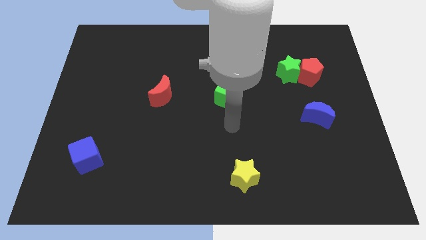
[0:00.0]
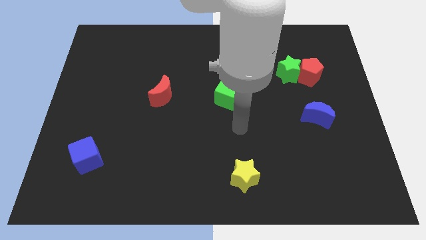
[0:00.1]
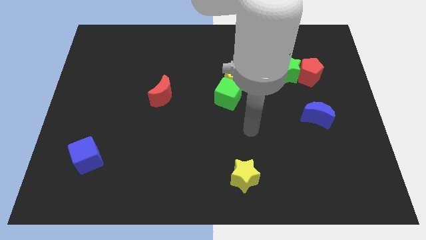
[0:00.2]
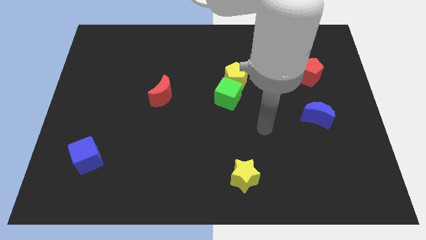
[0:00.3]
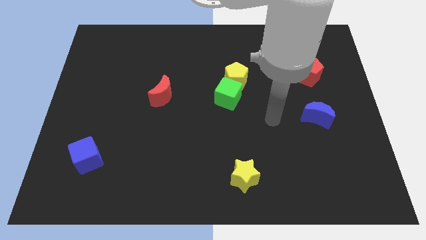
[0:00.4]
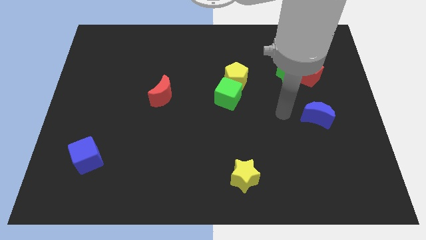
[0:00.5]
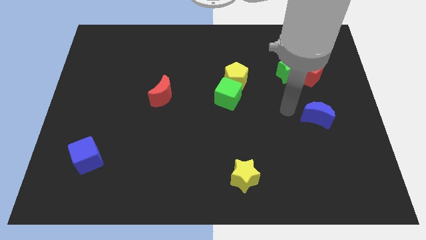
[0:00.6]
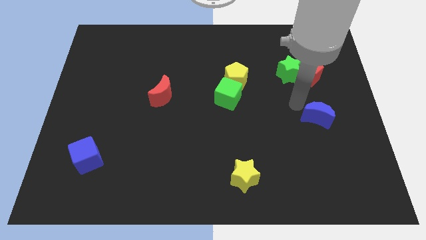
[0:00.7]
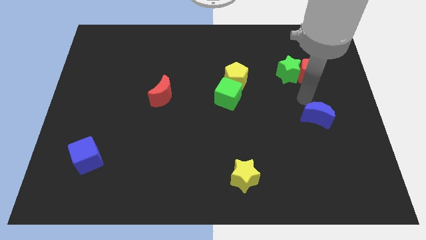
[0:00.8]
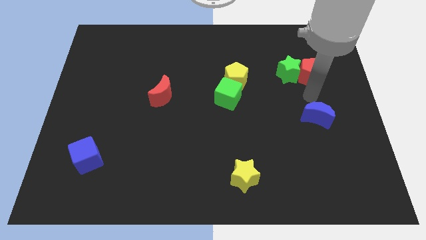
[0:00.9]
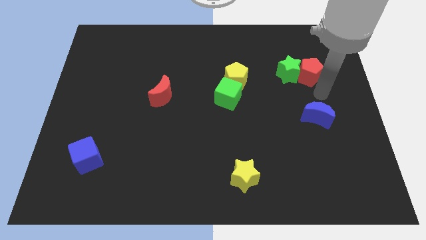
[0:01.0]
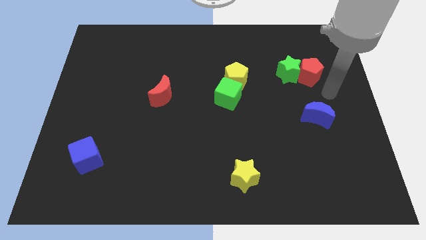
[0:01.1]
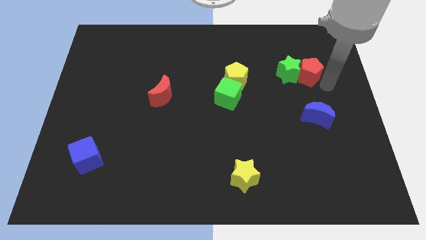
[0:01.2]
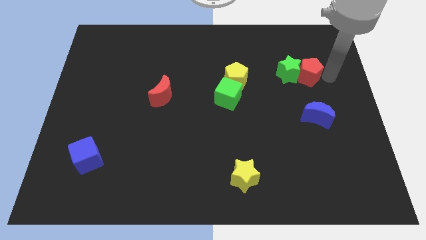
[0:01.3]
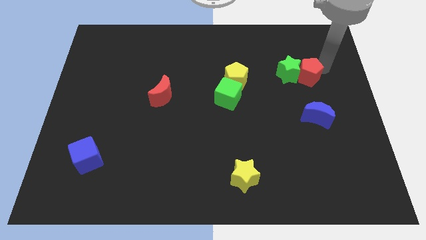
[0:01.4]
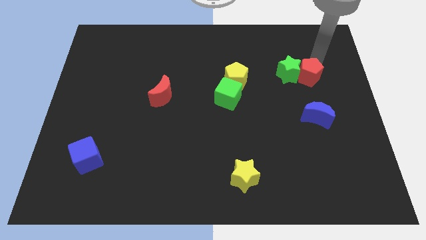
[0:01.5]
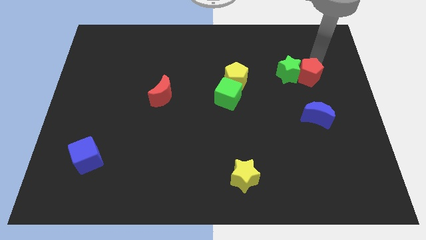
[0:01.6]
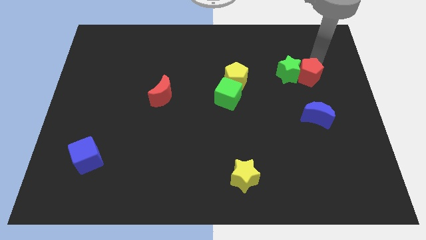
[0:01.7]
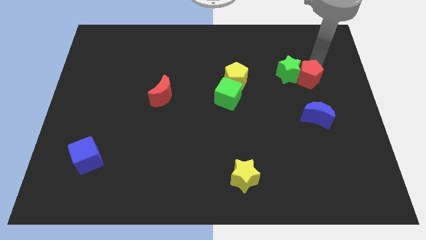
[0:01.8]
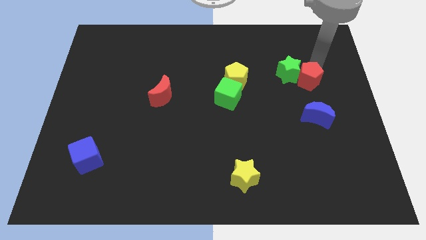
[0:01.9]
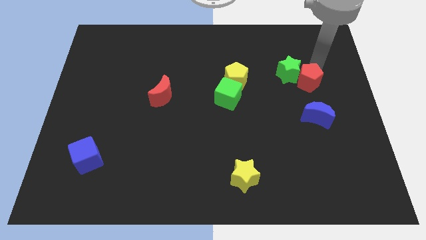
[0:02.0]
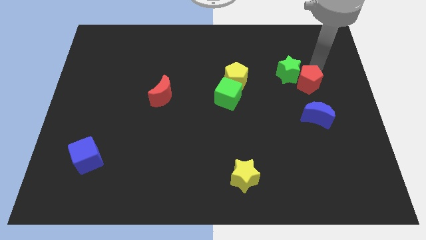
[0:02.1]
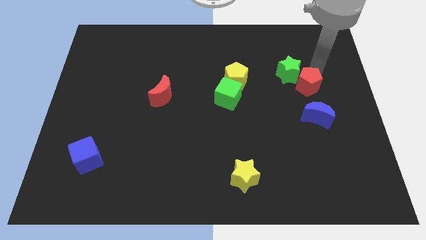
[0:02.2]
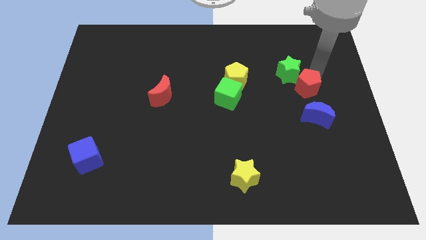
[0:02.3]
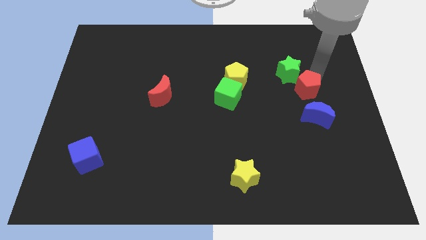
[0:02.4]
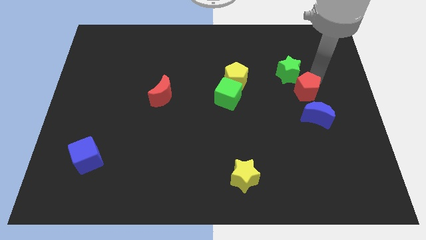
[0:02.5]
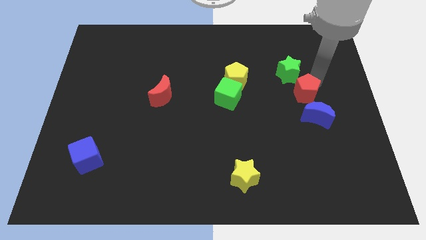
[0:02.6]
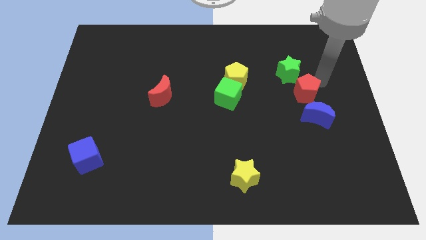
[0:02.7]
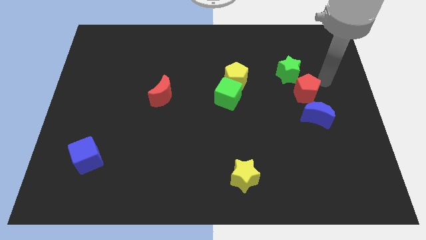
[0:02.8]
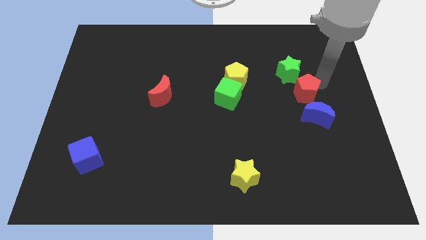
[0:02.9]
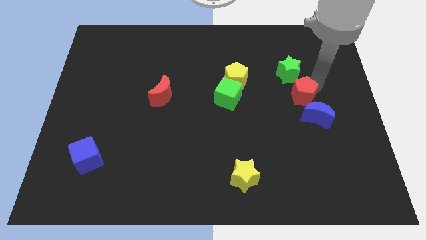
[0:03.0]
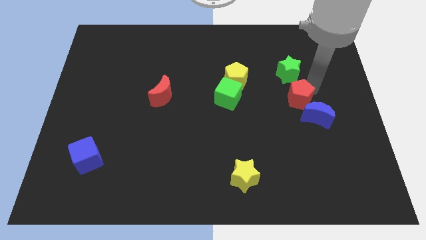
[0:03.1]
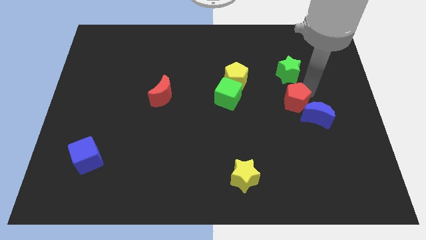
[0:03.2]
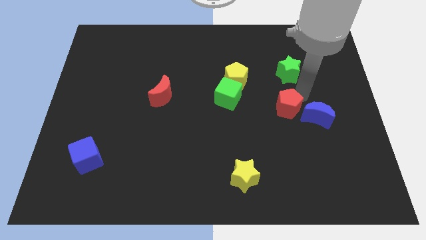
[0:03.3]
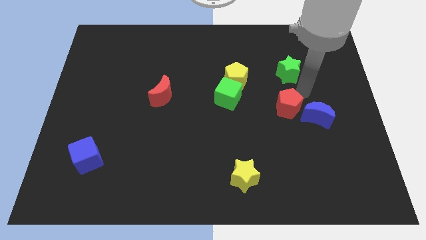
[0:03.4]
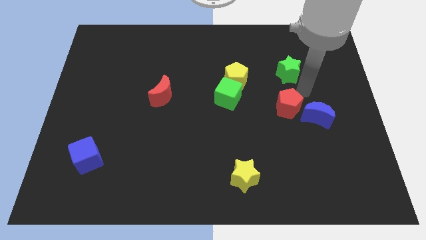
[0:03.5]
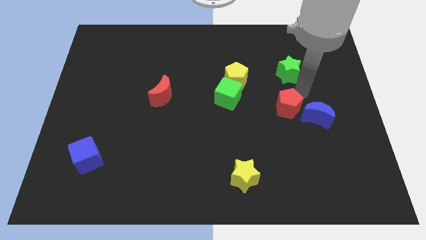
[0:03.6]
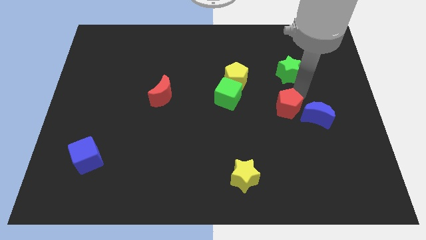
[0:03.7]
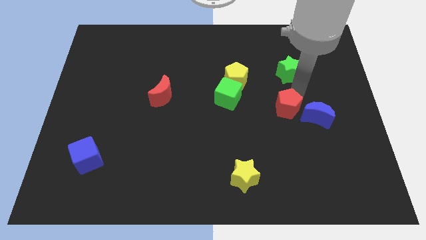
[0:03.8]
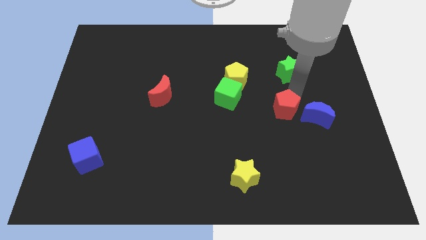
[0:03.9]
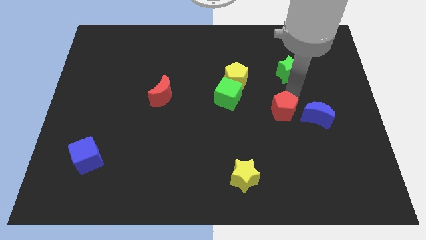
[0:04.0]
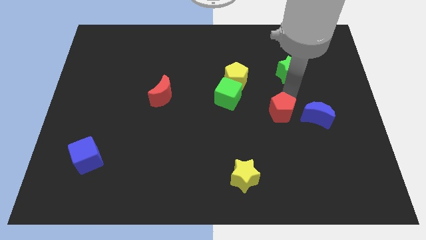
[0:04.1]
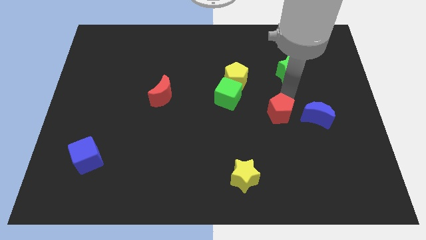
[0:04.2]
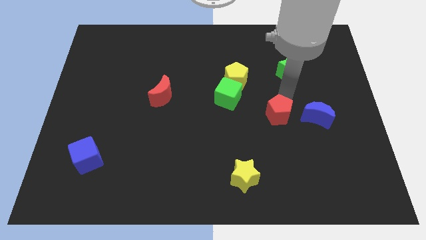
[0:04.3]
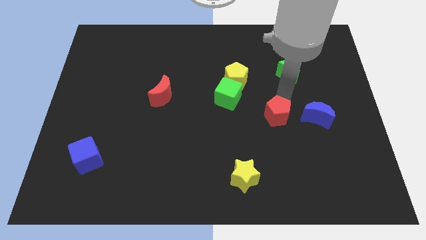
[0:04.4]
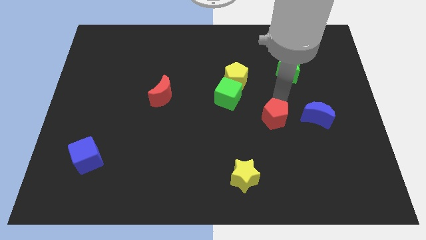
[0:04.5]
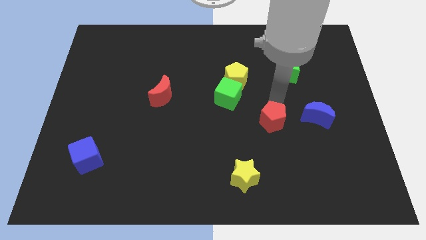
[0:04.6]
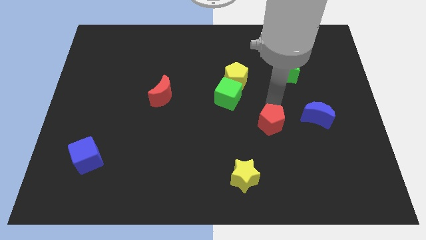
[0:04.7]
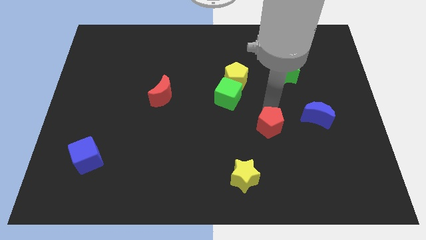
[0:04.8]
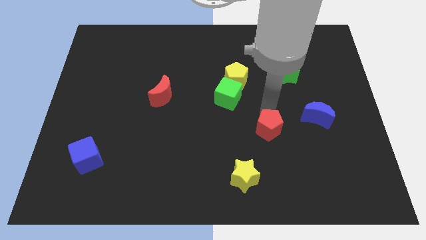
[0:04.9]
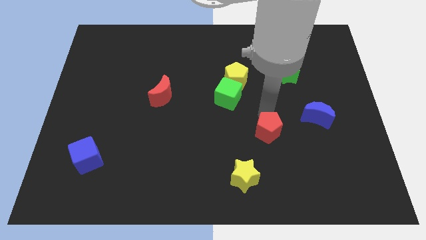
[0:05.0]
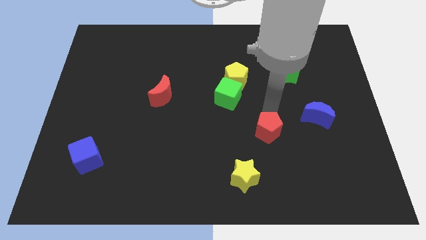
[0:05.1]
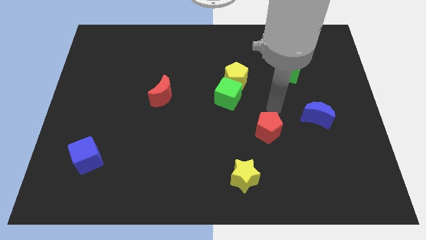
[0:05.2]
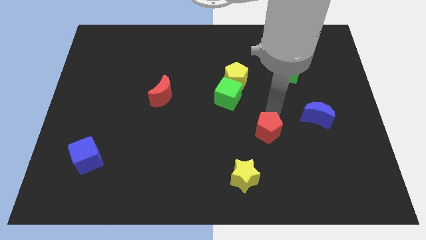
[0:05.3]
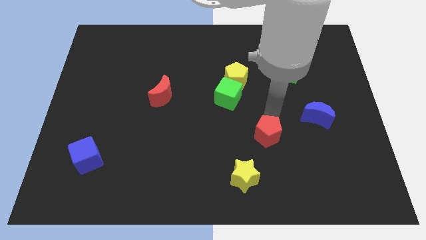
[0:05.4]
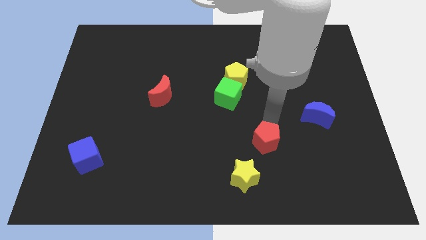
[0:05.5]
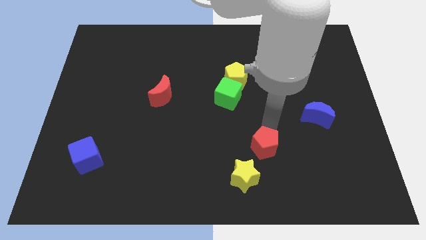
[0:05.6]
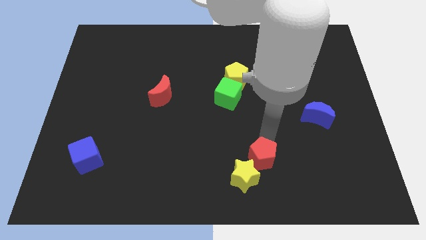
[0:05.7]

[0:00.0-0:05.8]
push the red pentagon towards the yellow star

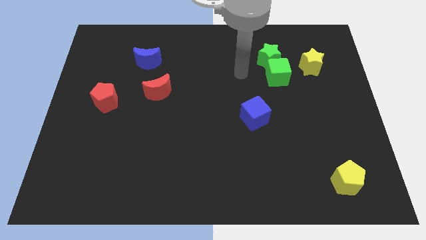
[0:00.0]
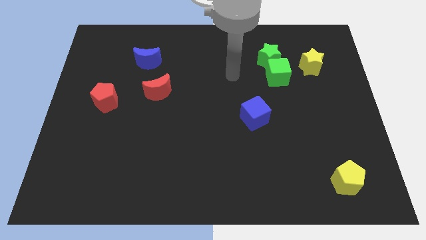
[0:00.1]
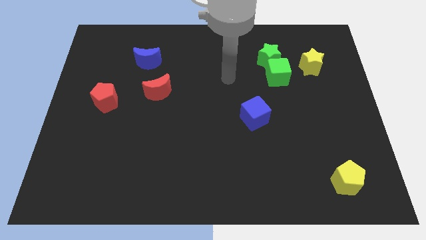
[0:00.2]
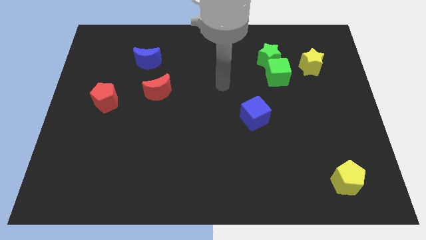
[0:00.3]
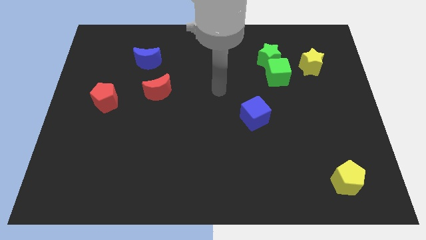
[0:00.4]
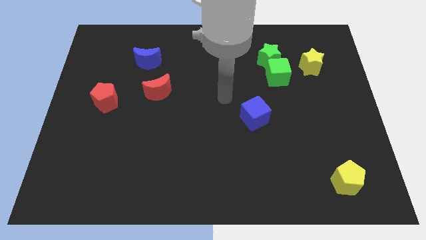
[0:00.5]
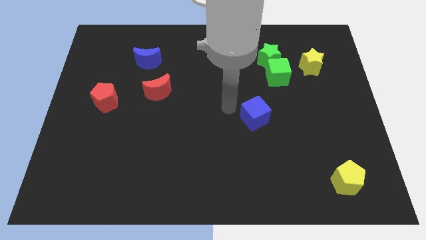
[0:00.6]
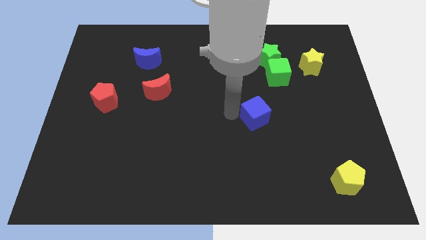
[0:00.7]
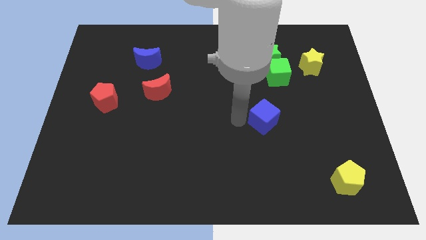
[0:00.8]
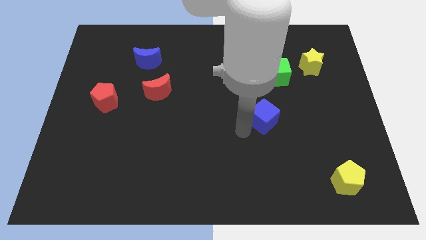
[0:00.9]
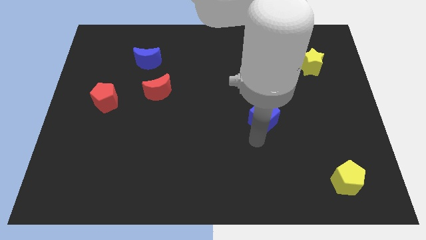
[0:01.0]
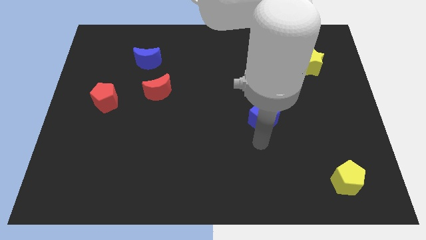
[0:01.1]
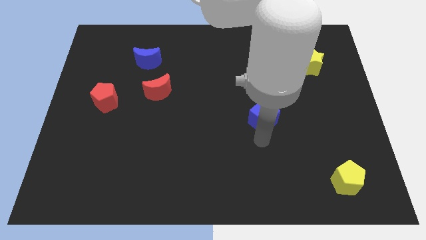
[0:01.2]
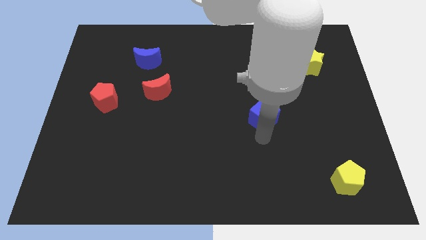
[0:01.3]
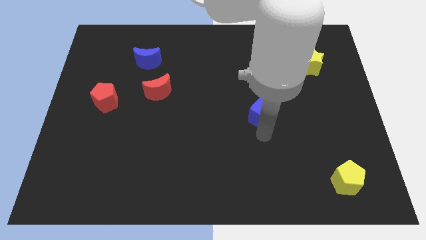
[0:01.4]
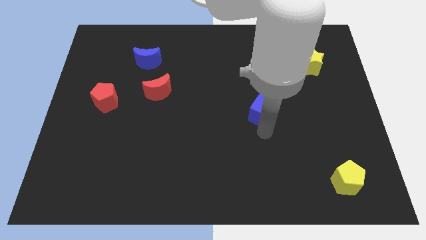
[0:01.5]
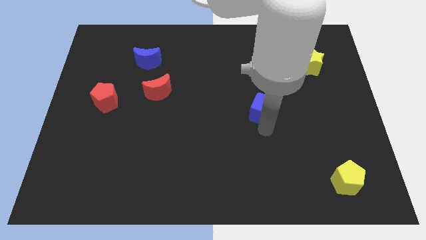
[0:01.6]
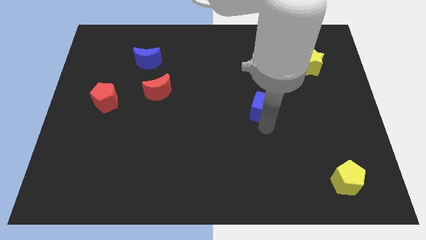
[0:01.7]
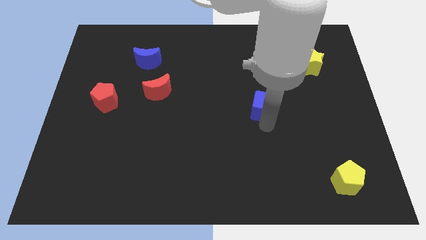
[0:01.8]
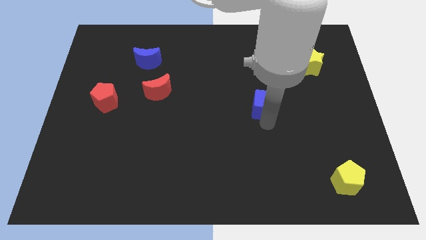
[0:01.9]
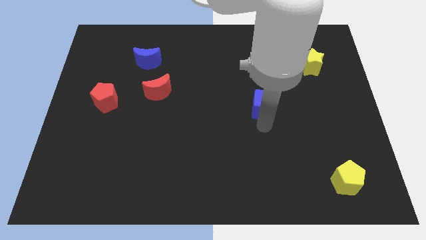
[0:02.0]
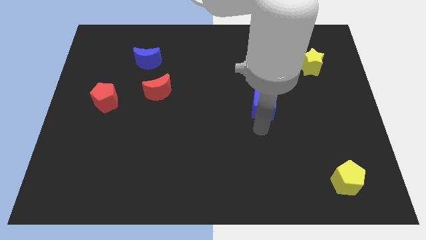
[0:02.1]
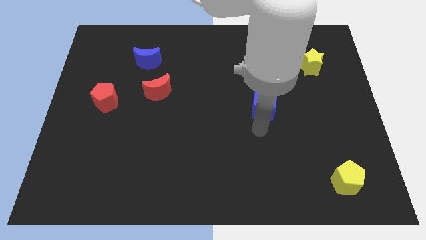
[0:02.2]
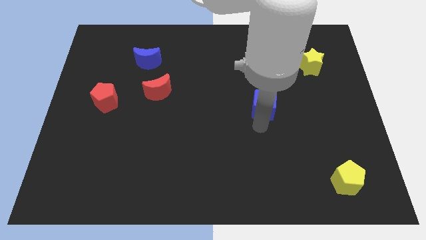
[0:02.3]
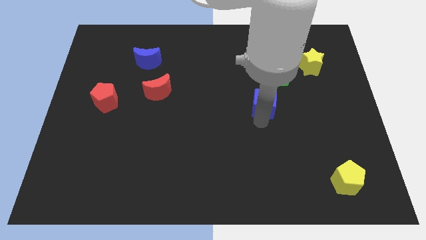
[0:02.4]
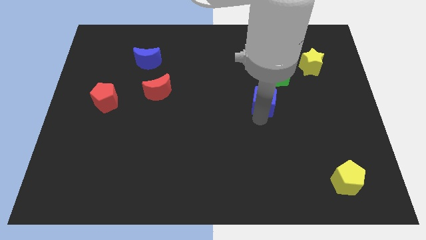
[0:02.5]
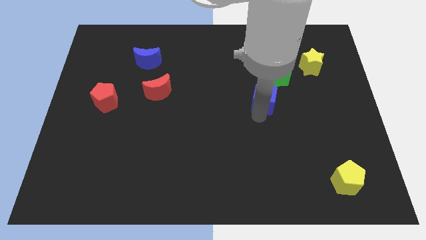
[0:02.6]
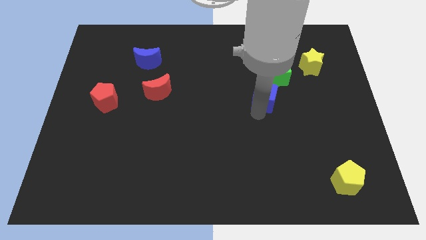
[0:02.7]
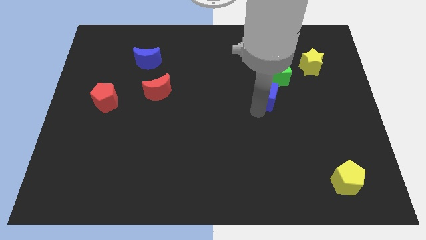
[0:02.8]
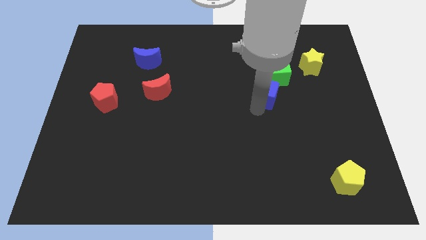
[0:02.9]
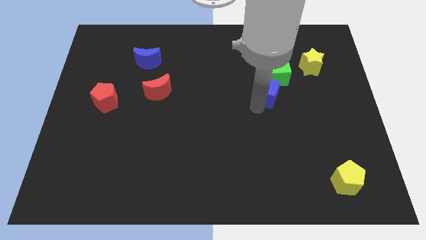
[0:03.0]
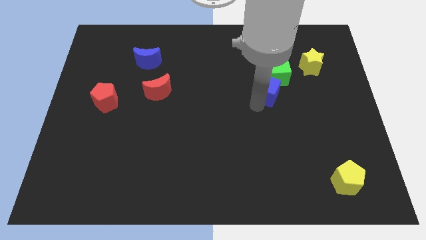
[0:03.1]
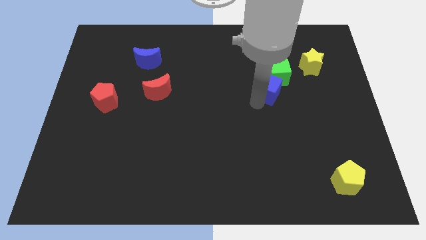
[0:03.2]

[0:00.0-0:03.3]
move the blue cube next to the green cube
